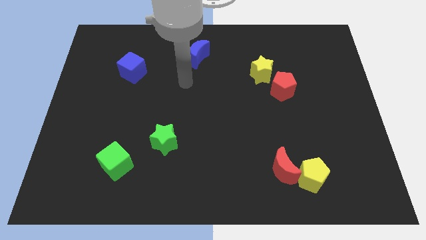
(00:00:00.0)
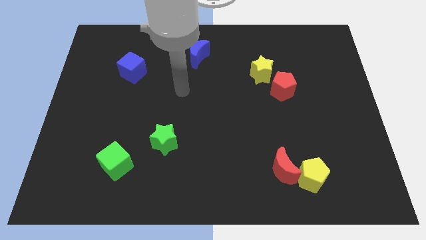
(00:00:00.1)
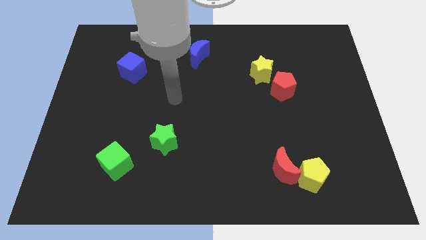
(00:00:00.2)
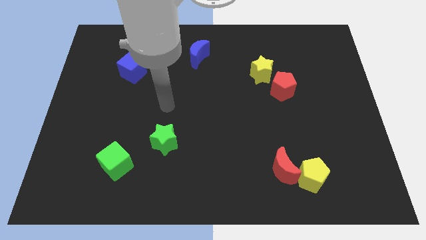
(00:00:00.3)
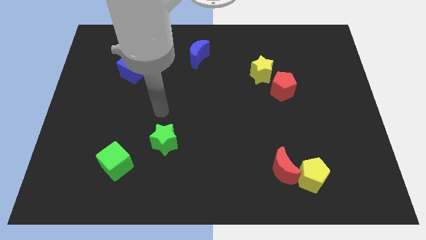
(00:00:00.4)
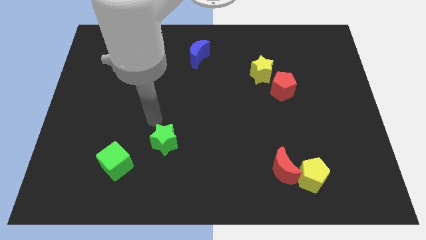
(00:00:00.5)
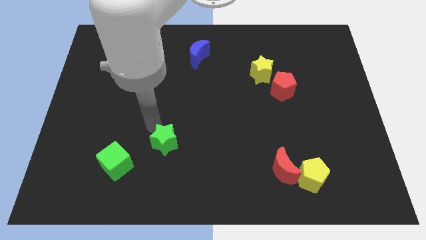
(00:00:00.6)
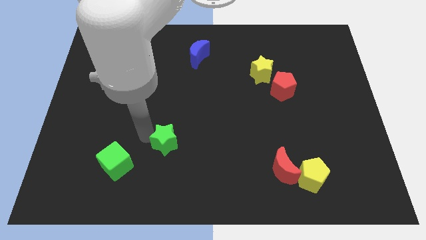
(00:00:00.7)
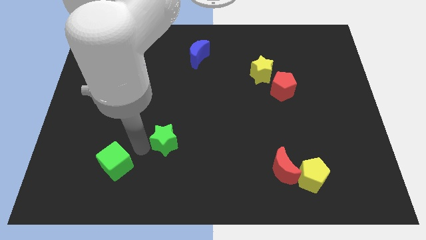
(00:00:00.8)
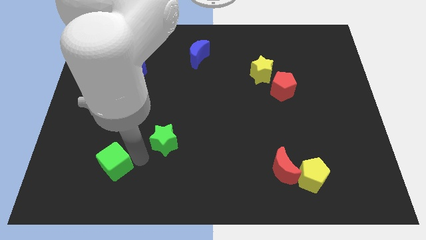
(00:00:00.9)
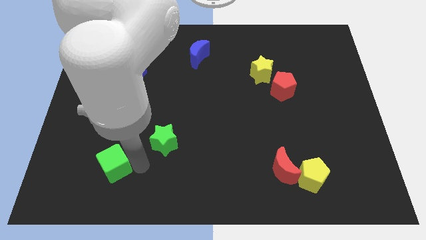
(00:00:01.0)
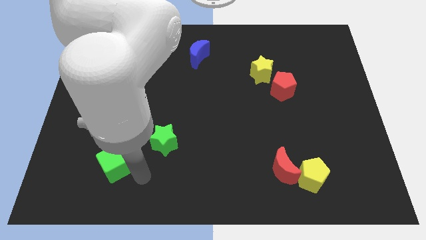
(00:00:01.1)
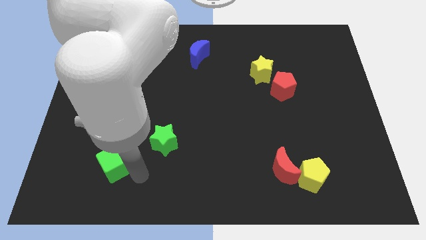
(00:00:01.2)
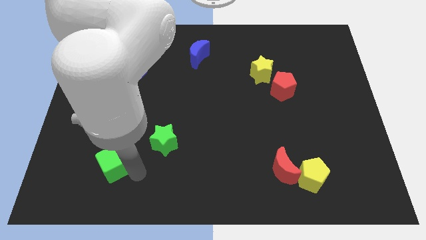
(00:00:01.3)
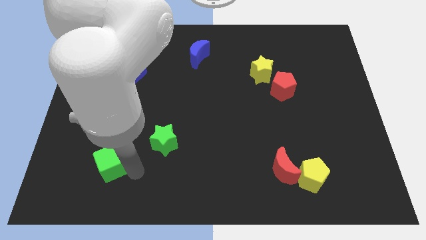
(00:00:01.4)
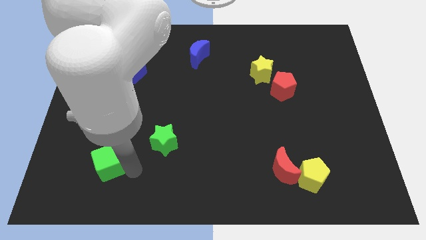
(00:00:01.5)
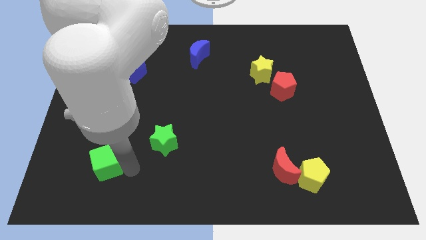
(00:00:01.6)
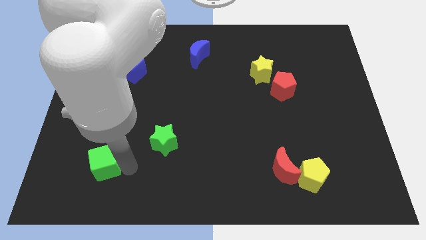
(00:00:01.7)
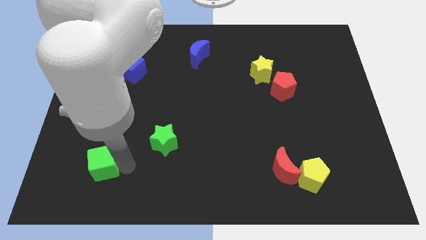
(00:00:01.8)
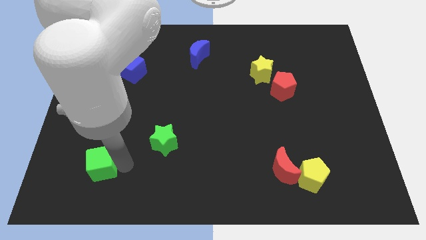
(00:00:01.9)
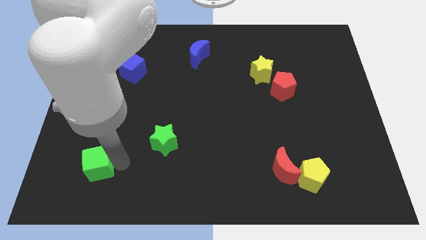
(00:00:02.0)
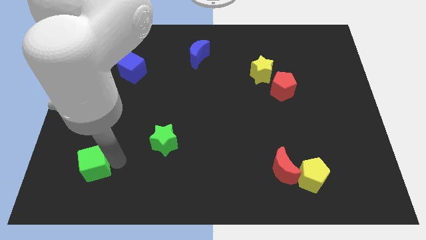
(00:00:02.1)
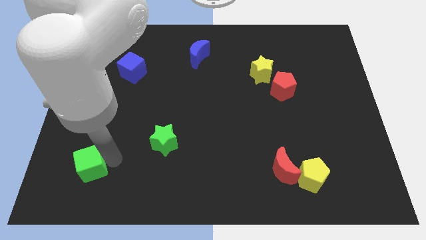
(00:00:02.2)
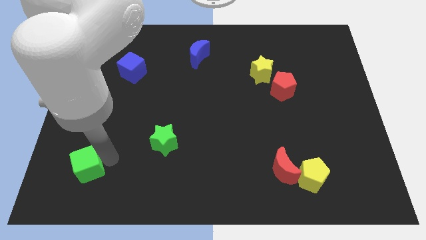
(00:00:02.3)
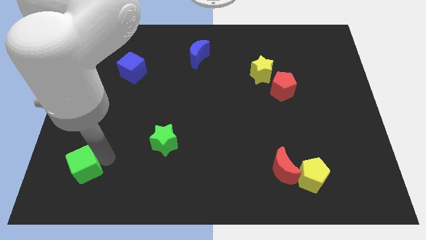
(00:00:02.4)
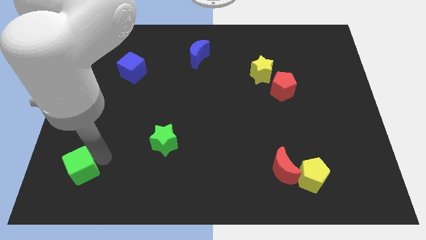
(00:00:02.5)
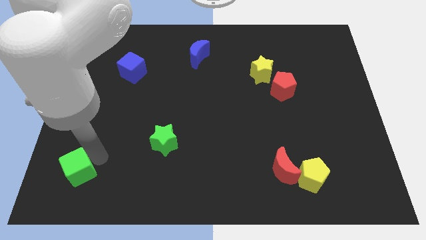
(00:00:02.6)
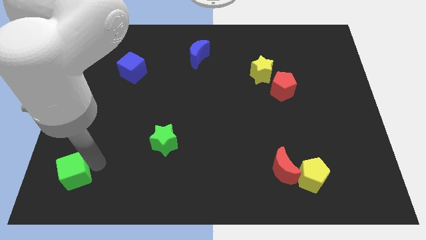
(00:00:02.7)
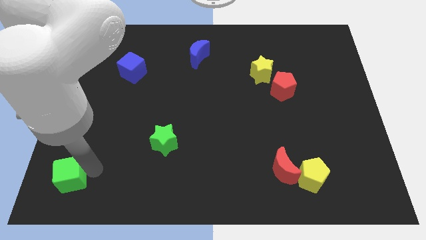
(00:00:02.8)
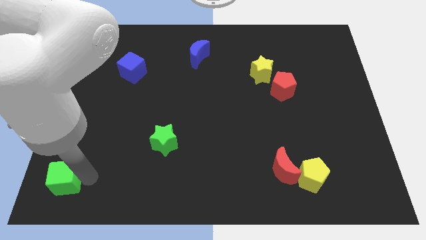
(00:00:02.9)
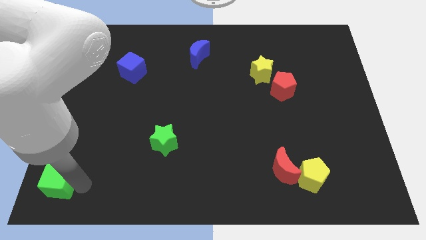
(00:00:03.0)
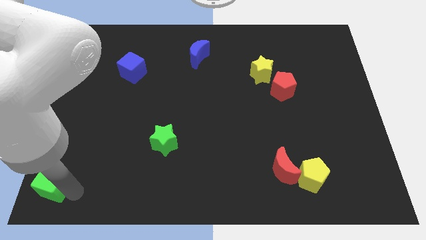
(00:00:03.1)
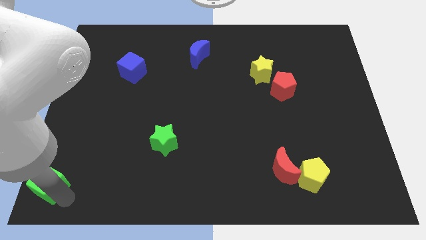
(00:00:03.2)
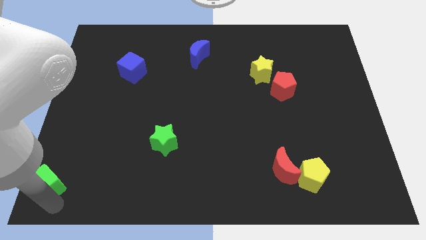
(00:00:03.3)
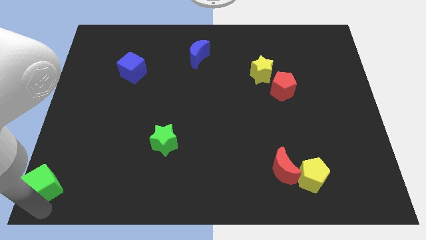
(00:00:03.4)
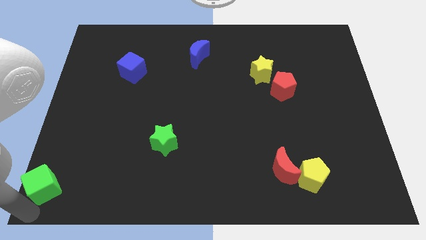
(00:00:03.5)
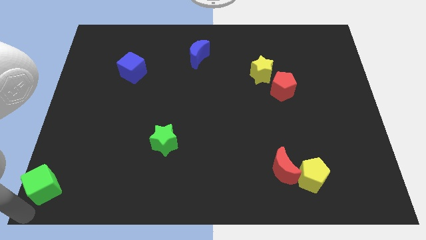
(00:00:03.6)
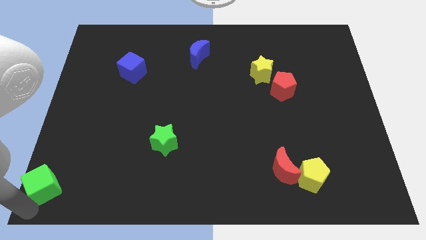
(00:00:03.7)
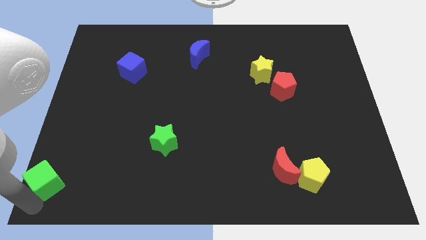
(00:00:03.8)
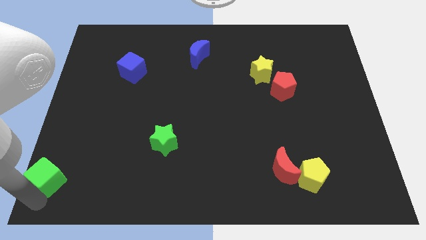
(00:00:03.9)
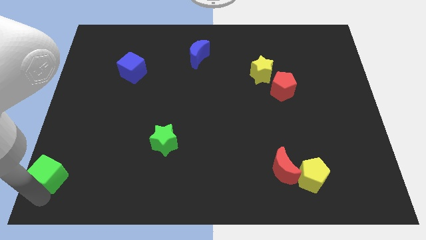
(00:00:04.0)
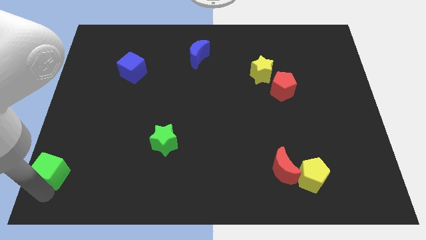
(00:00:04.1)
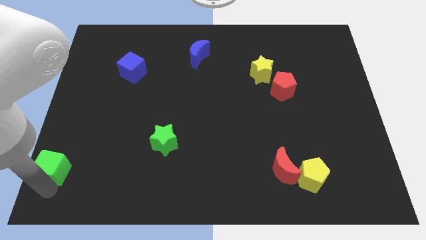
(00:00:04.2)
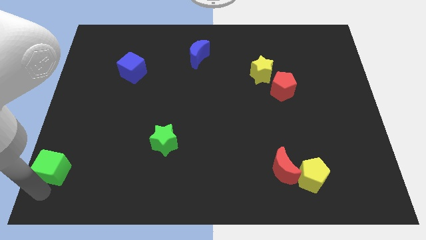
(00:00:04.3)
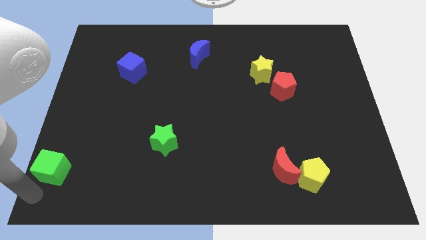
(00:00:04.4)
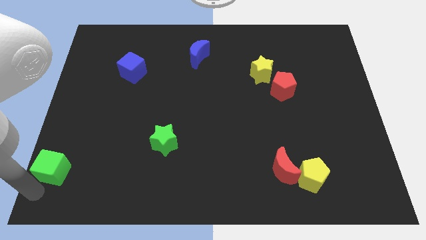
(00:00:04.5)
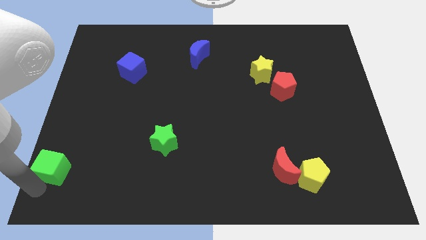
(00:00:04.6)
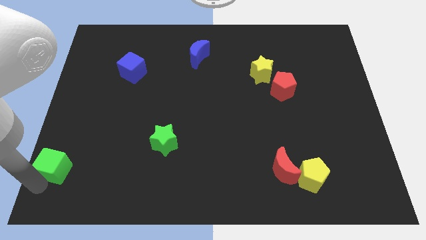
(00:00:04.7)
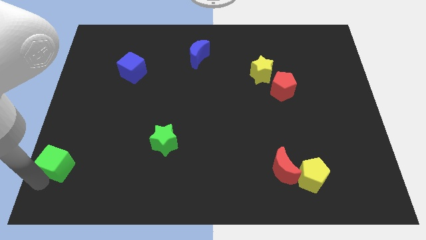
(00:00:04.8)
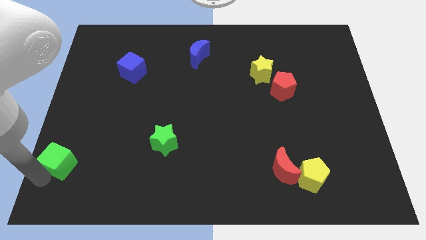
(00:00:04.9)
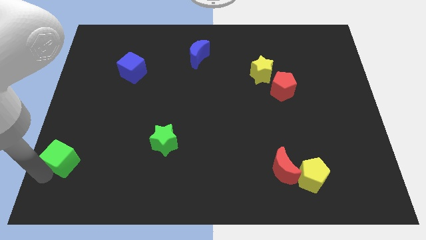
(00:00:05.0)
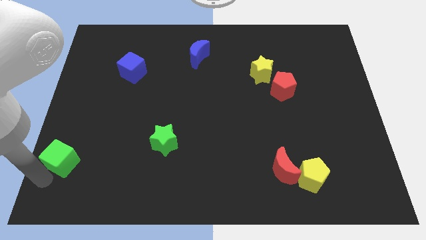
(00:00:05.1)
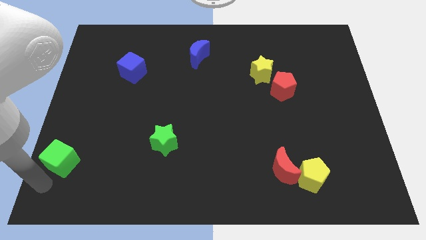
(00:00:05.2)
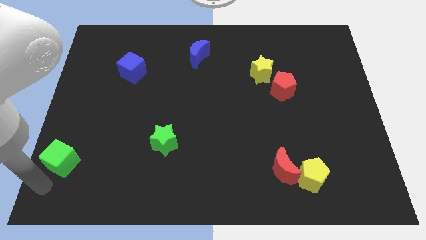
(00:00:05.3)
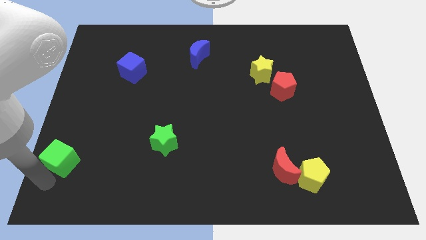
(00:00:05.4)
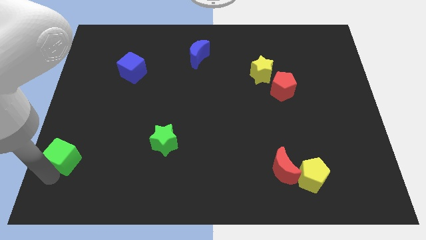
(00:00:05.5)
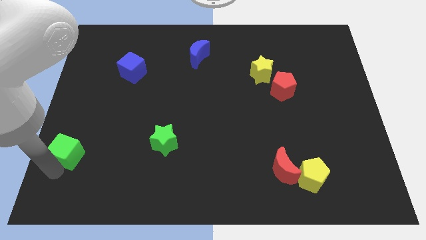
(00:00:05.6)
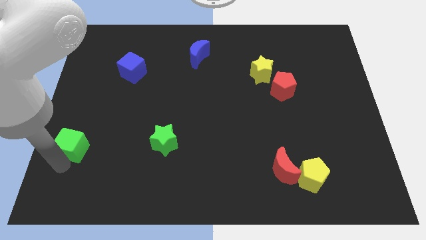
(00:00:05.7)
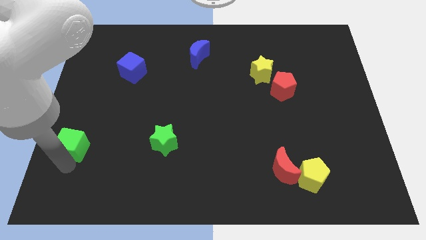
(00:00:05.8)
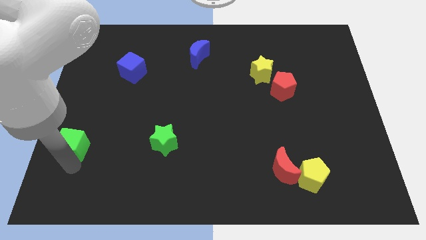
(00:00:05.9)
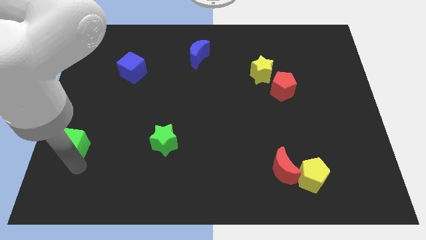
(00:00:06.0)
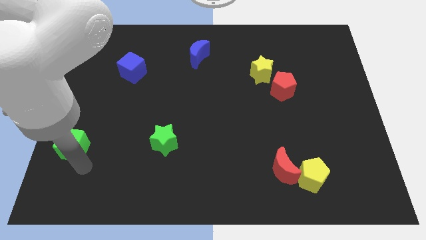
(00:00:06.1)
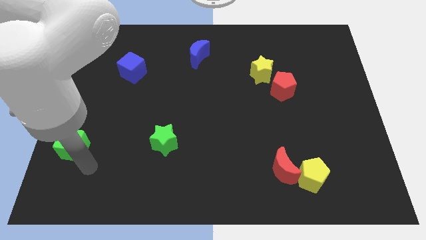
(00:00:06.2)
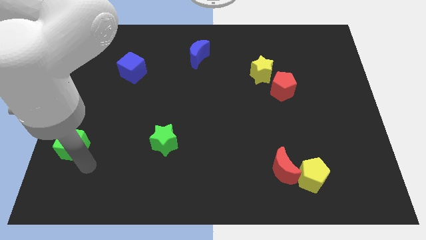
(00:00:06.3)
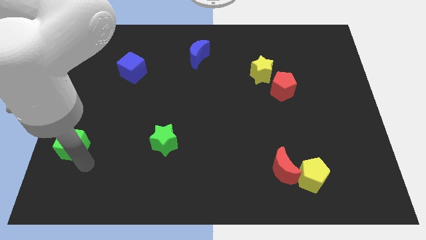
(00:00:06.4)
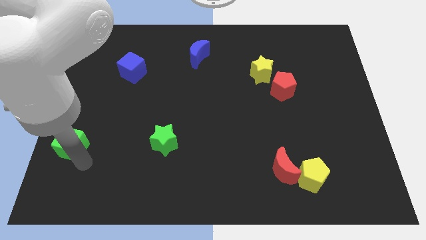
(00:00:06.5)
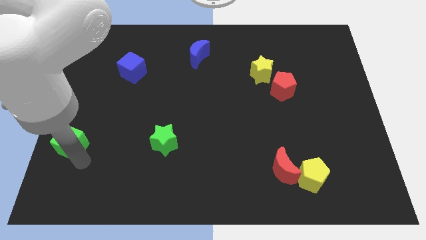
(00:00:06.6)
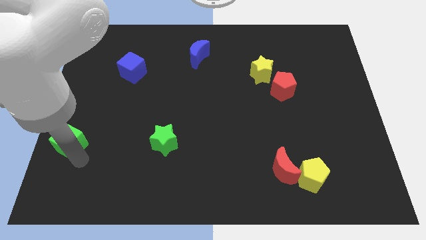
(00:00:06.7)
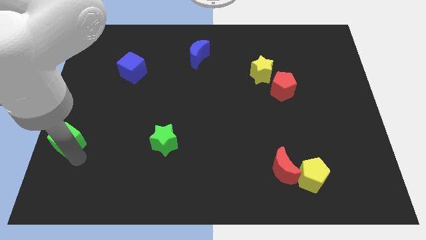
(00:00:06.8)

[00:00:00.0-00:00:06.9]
slide the green cube to the left side

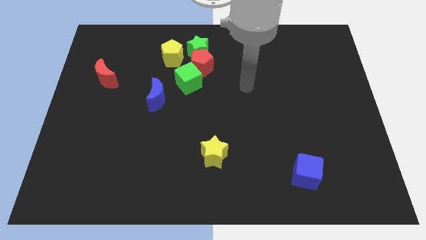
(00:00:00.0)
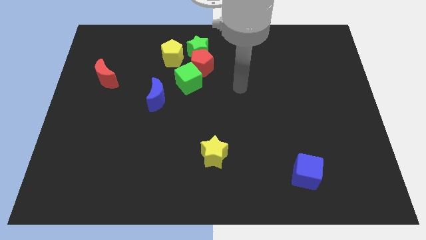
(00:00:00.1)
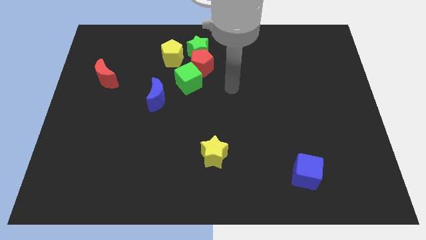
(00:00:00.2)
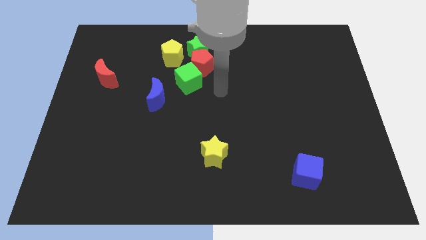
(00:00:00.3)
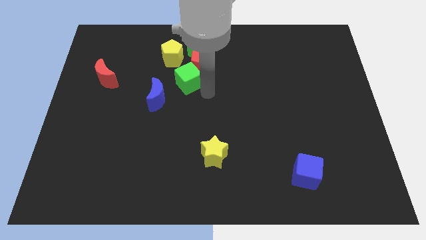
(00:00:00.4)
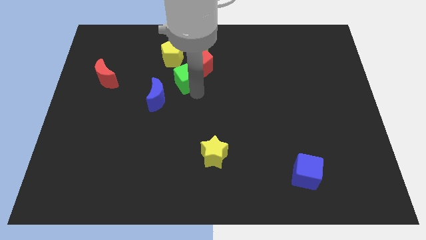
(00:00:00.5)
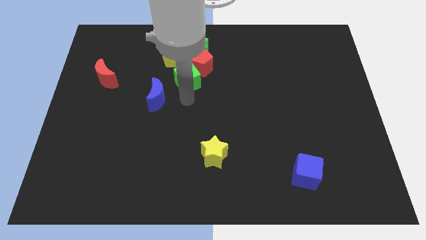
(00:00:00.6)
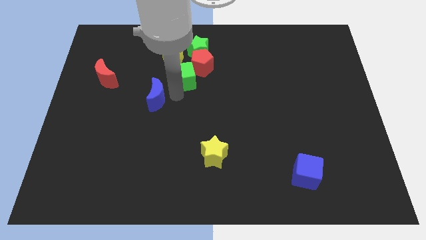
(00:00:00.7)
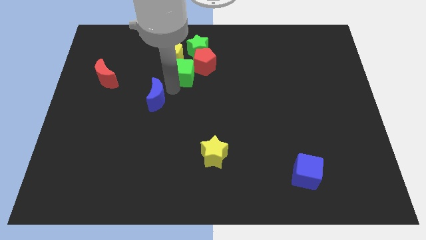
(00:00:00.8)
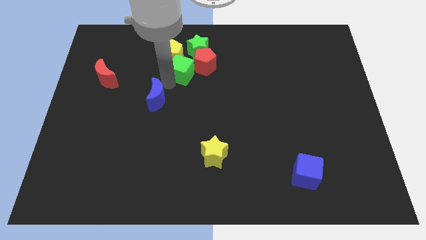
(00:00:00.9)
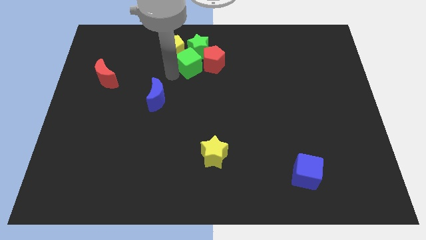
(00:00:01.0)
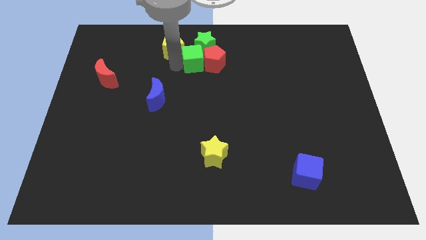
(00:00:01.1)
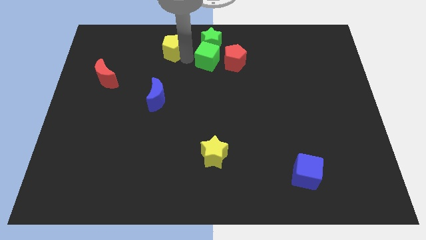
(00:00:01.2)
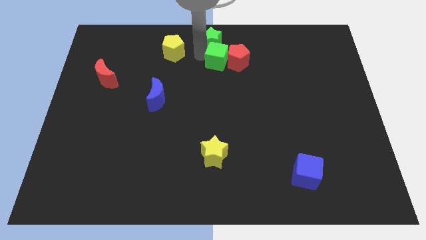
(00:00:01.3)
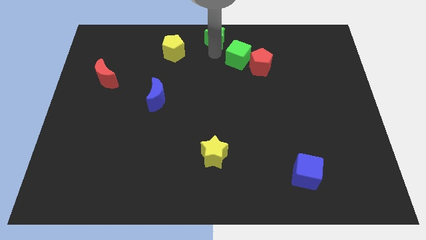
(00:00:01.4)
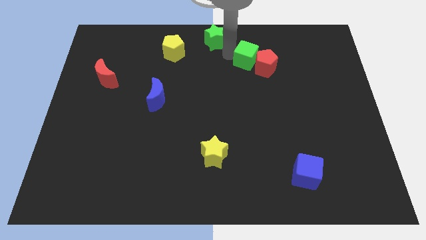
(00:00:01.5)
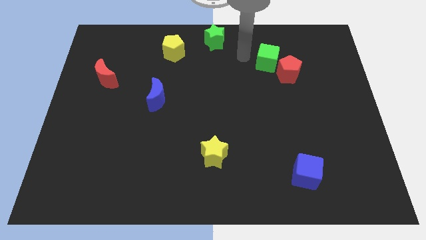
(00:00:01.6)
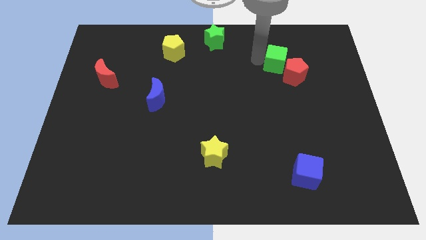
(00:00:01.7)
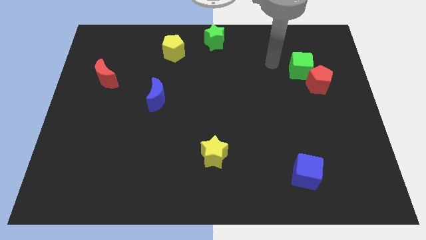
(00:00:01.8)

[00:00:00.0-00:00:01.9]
move the red pentagon to the right side of the board
